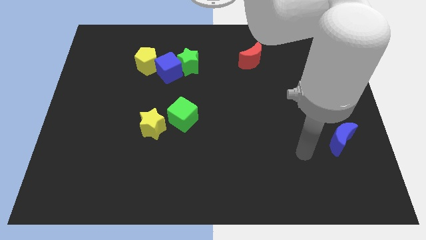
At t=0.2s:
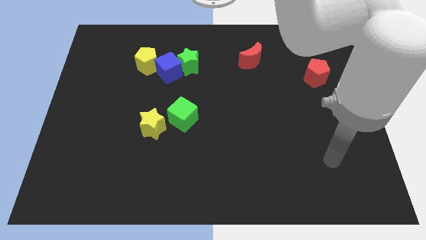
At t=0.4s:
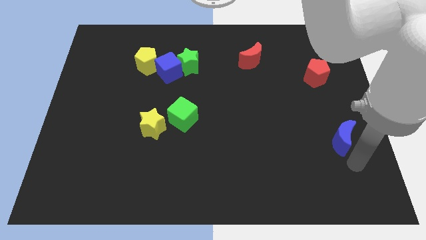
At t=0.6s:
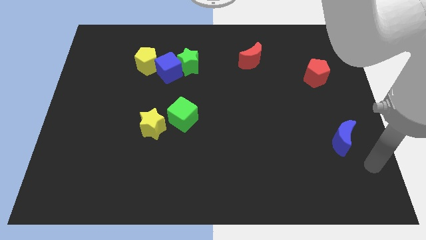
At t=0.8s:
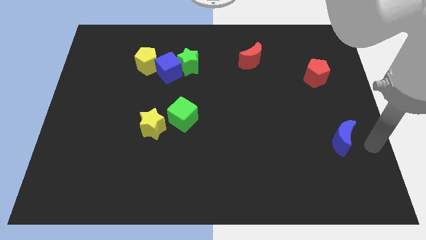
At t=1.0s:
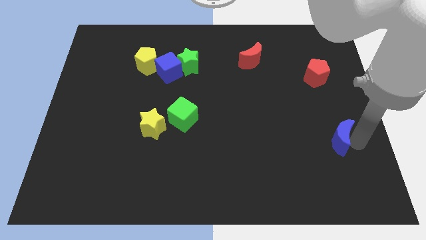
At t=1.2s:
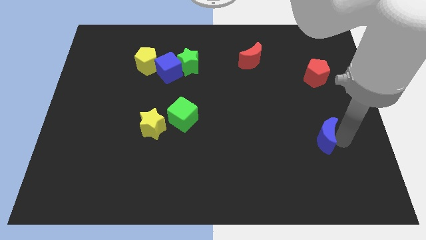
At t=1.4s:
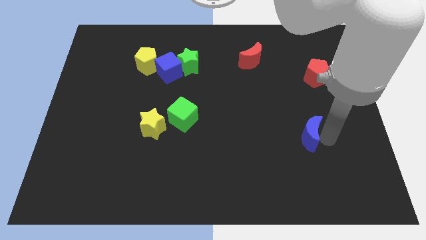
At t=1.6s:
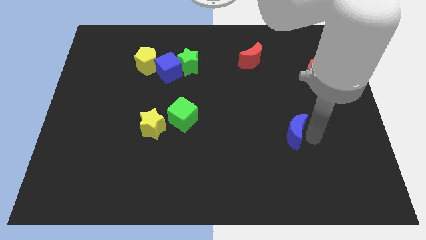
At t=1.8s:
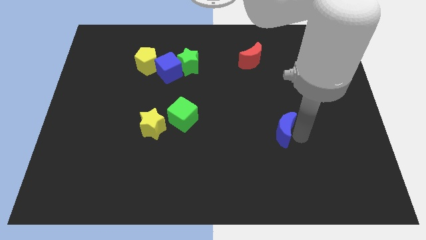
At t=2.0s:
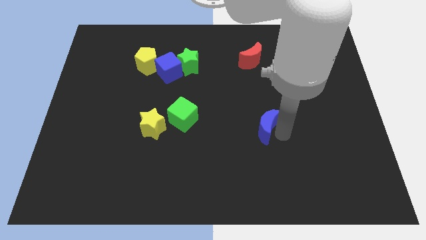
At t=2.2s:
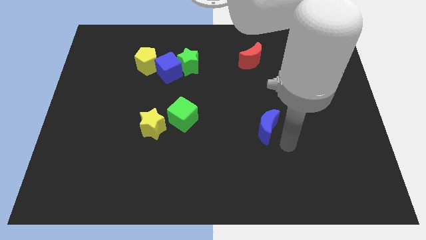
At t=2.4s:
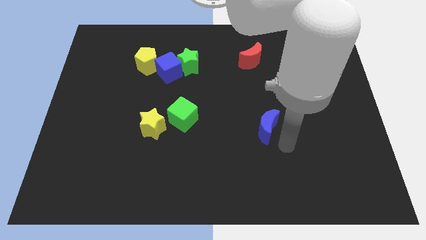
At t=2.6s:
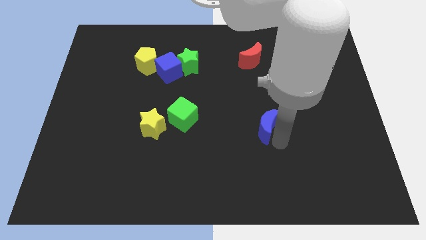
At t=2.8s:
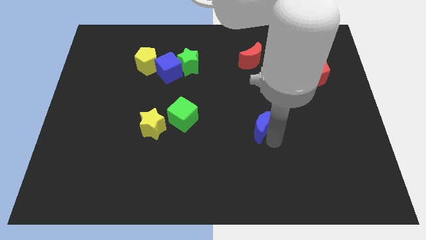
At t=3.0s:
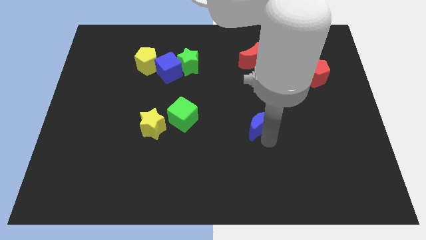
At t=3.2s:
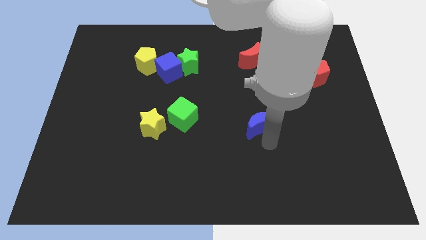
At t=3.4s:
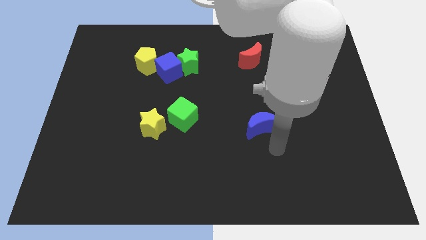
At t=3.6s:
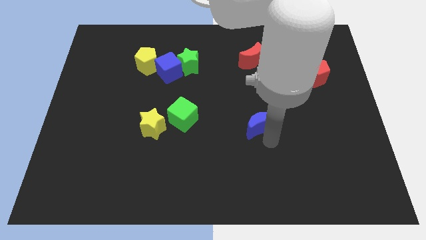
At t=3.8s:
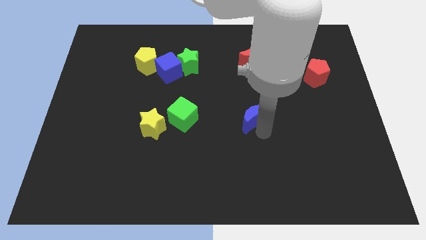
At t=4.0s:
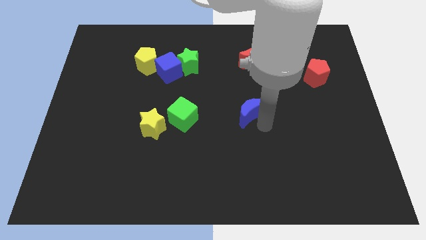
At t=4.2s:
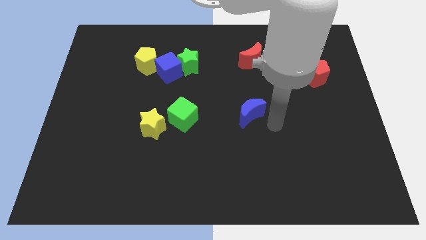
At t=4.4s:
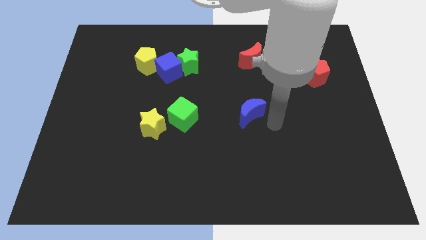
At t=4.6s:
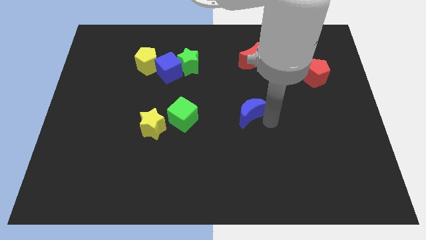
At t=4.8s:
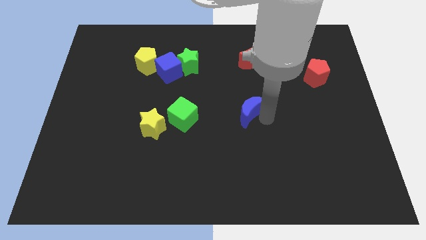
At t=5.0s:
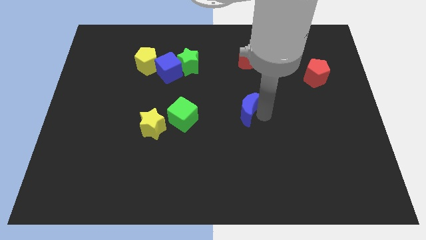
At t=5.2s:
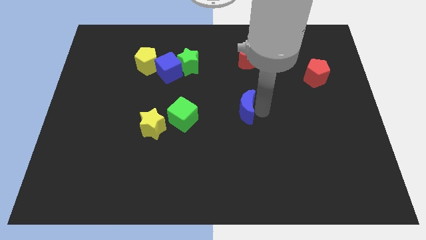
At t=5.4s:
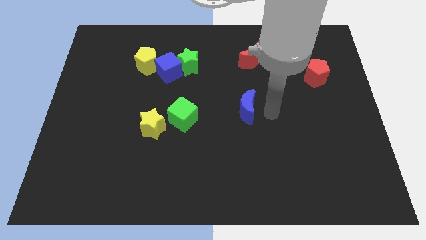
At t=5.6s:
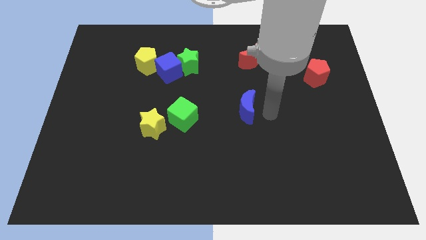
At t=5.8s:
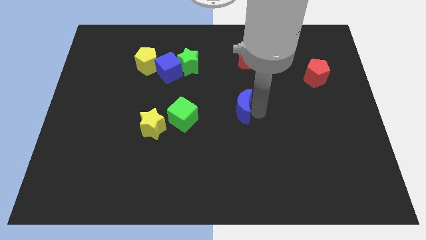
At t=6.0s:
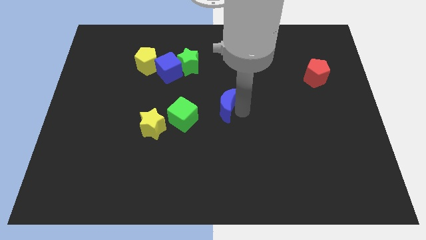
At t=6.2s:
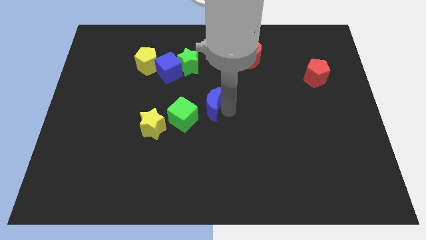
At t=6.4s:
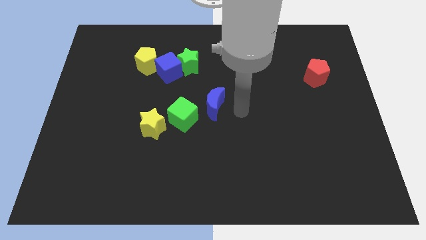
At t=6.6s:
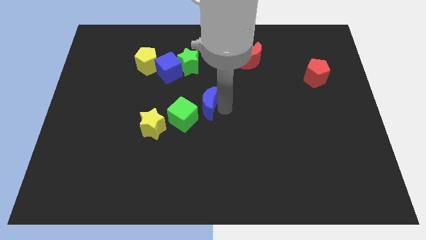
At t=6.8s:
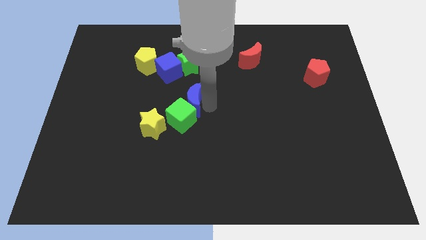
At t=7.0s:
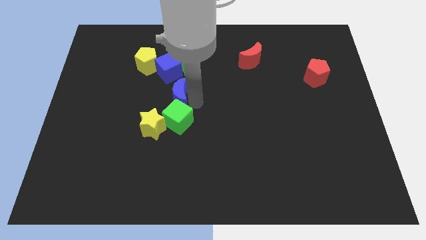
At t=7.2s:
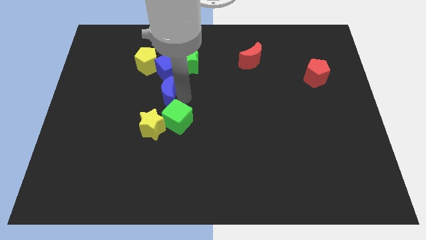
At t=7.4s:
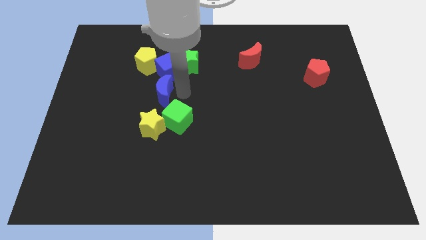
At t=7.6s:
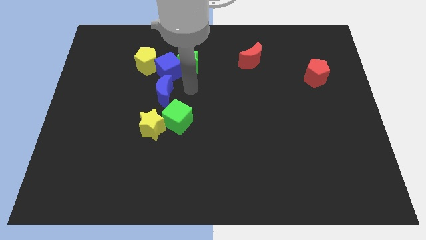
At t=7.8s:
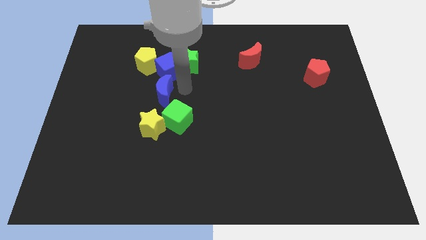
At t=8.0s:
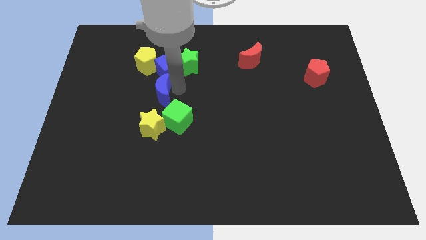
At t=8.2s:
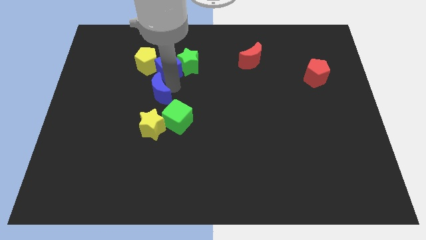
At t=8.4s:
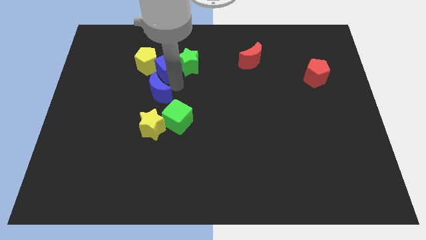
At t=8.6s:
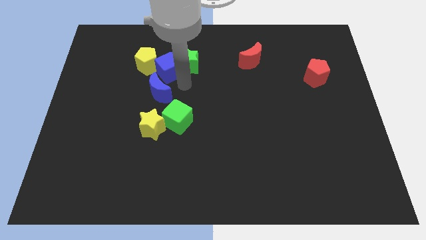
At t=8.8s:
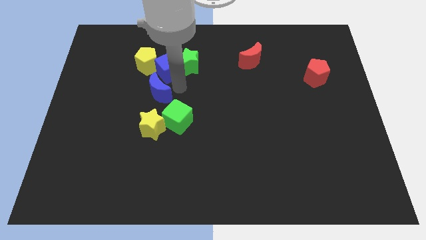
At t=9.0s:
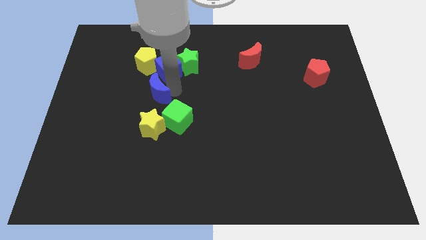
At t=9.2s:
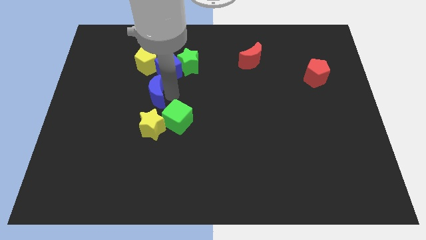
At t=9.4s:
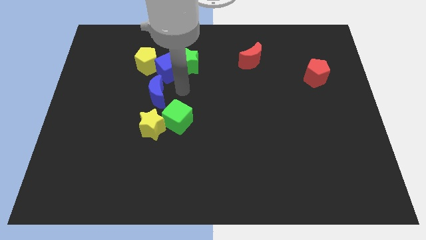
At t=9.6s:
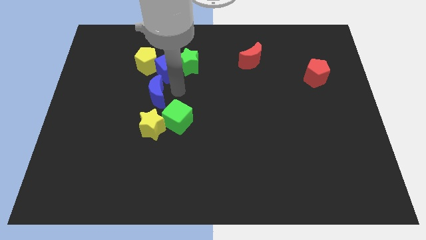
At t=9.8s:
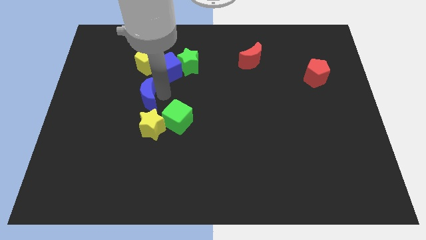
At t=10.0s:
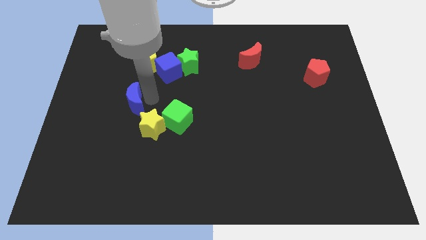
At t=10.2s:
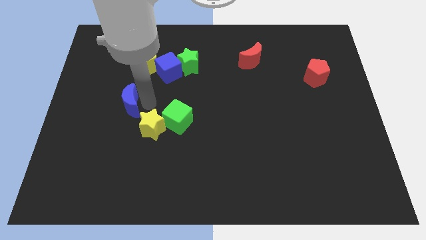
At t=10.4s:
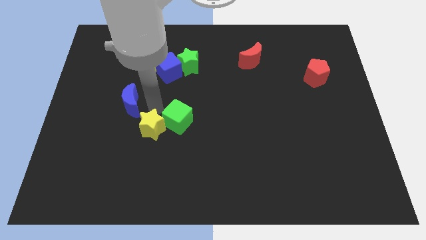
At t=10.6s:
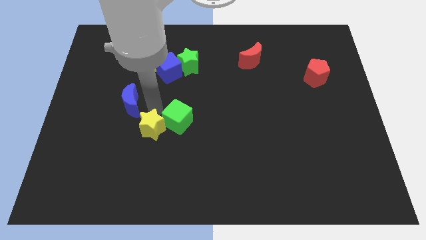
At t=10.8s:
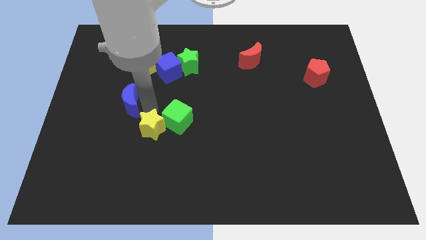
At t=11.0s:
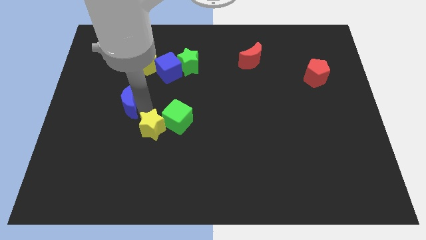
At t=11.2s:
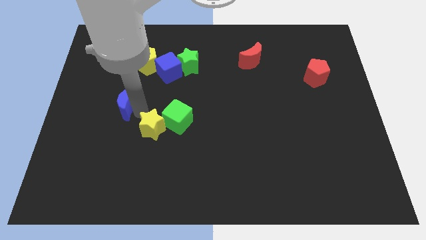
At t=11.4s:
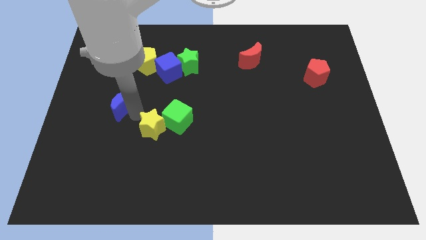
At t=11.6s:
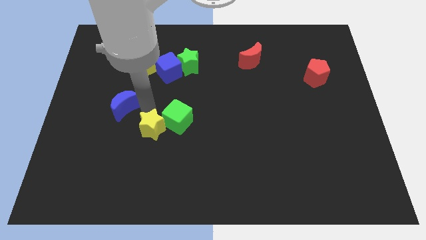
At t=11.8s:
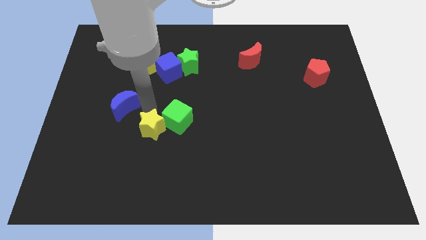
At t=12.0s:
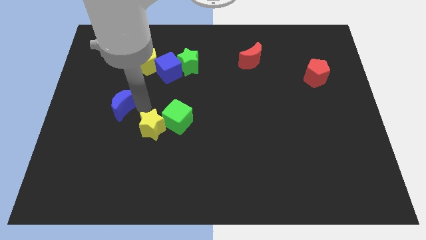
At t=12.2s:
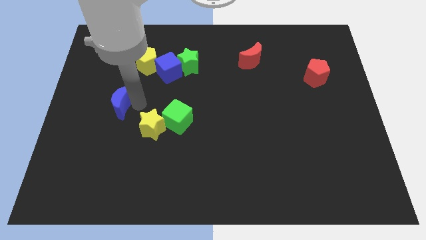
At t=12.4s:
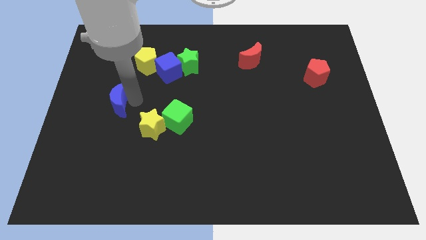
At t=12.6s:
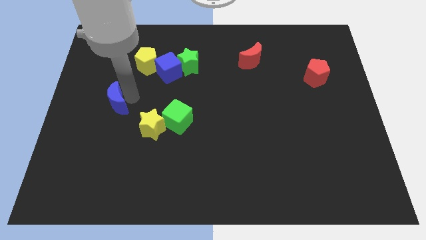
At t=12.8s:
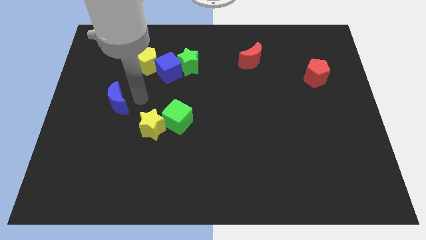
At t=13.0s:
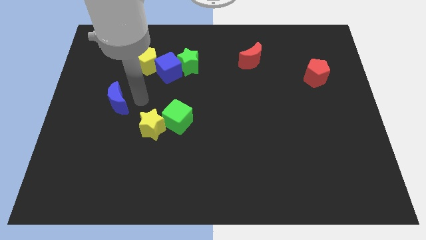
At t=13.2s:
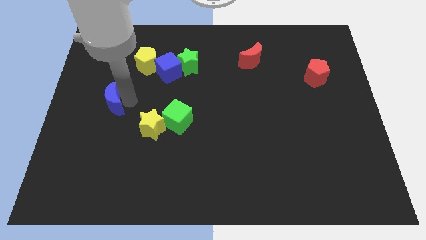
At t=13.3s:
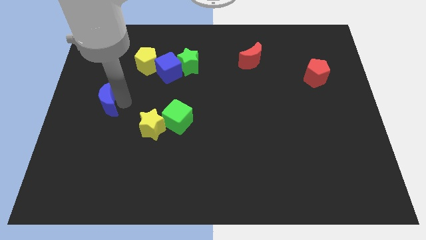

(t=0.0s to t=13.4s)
put the blue moon to the left side

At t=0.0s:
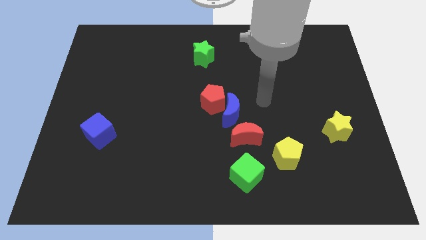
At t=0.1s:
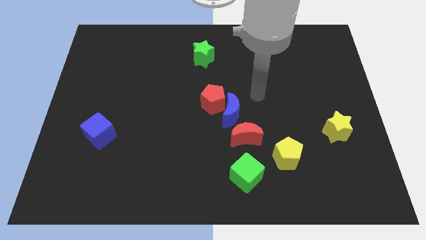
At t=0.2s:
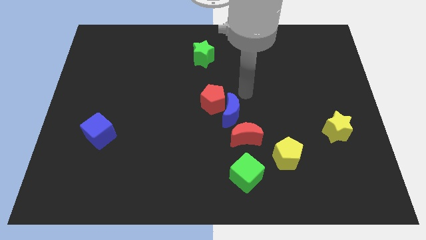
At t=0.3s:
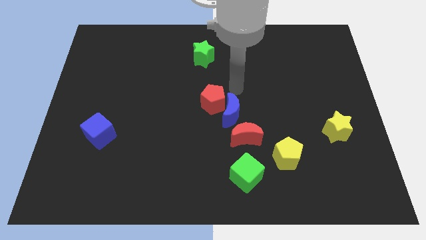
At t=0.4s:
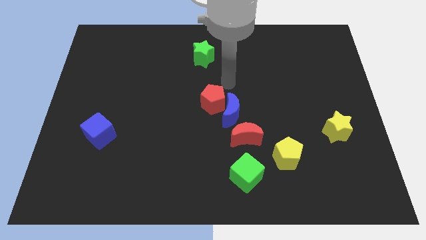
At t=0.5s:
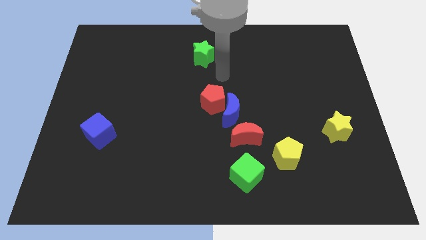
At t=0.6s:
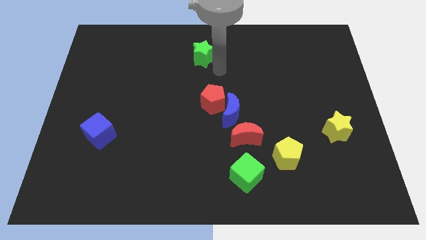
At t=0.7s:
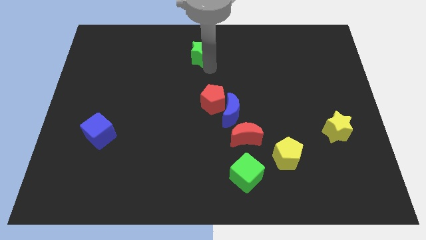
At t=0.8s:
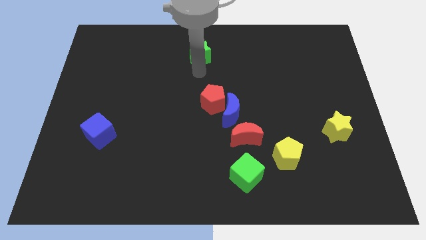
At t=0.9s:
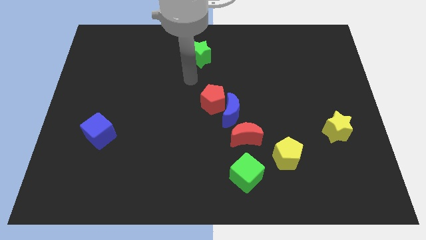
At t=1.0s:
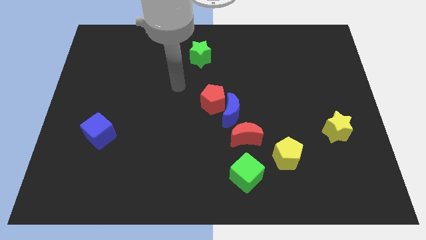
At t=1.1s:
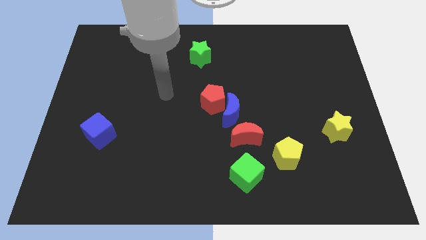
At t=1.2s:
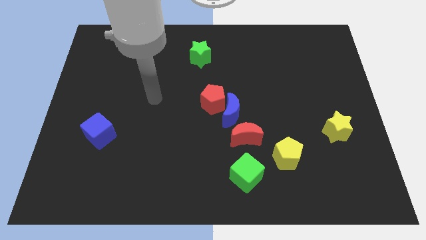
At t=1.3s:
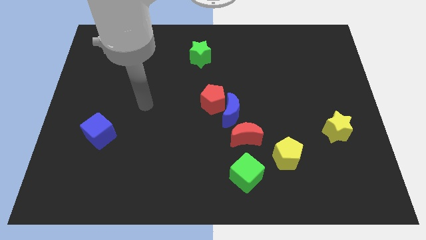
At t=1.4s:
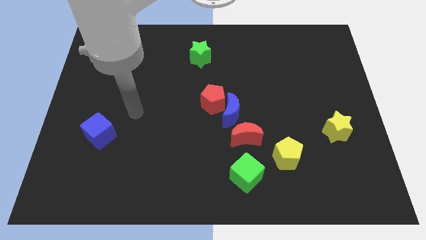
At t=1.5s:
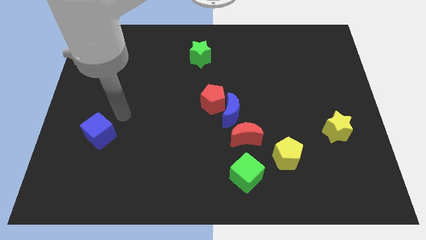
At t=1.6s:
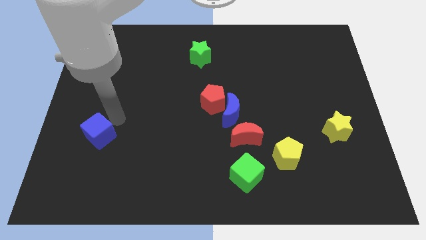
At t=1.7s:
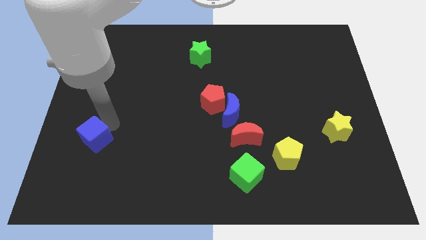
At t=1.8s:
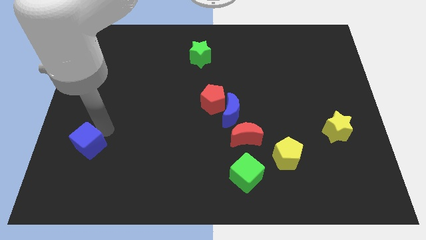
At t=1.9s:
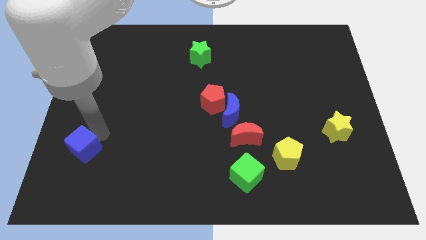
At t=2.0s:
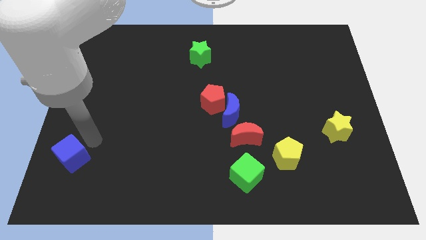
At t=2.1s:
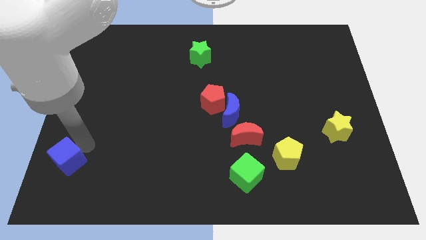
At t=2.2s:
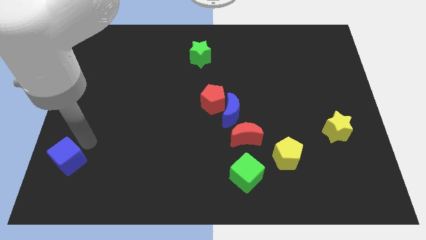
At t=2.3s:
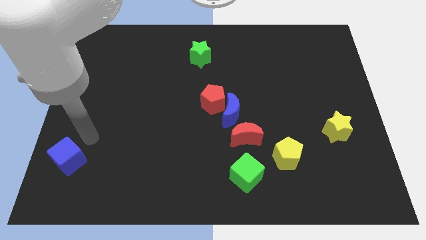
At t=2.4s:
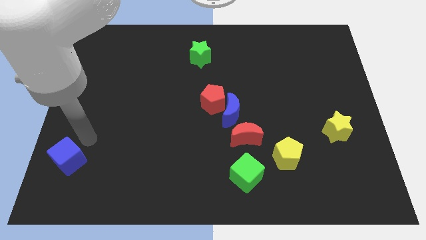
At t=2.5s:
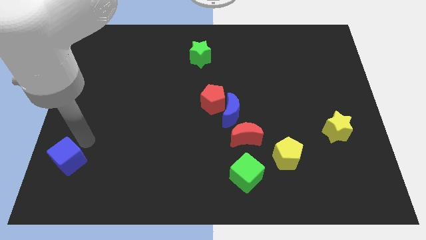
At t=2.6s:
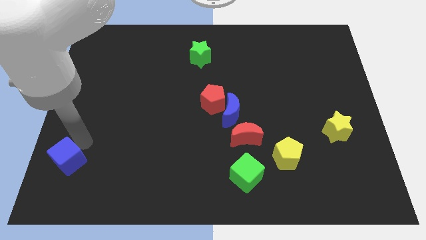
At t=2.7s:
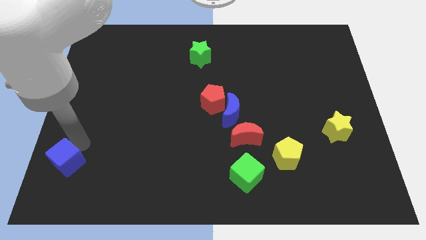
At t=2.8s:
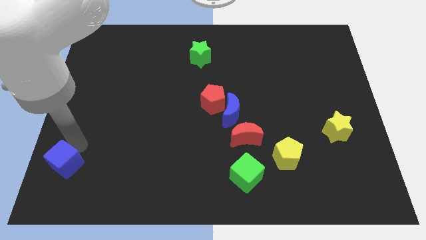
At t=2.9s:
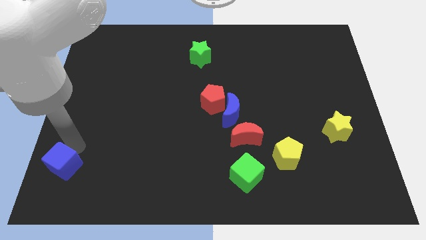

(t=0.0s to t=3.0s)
put the blue cube to the lower left corner
